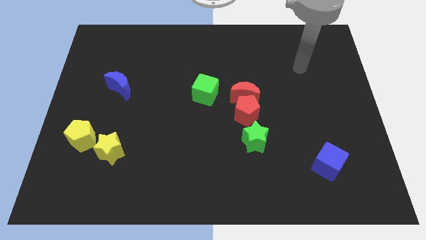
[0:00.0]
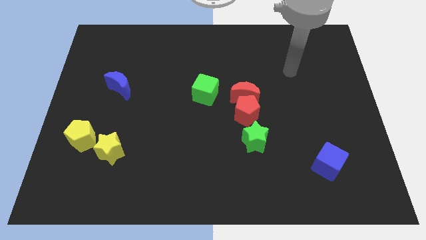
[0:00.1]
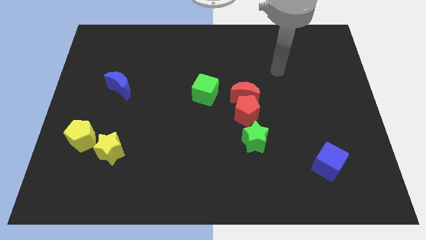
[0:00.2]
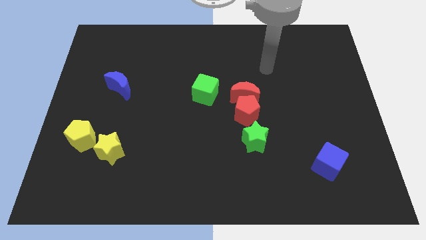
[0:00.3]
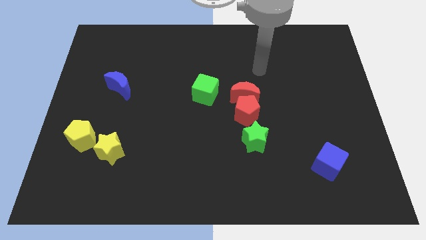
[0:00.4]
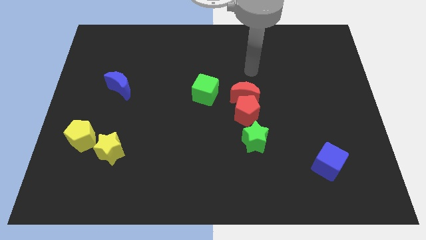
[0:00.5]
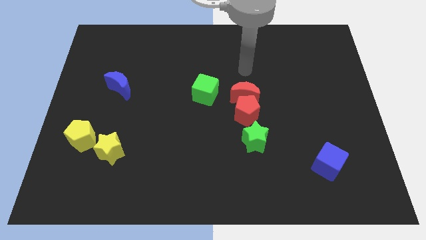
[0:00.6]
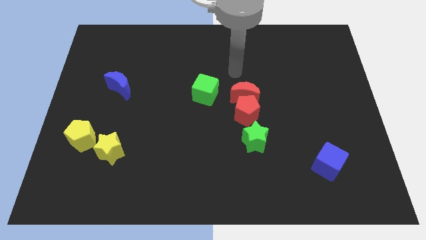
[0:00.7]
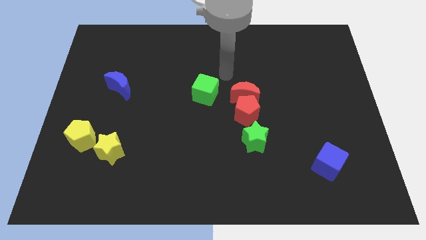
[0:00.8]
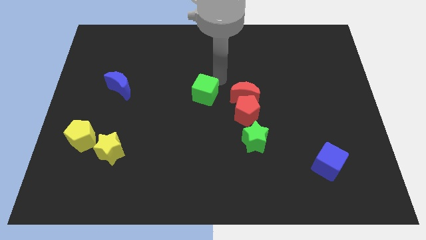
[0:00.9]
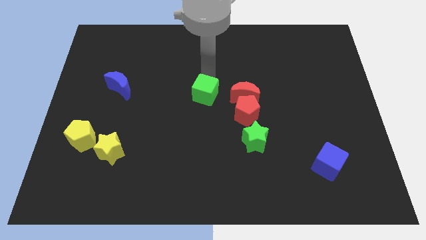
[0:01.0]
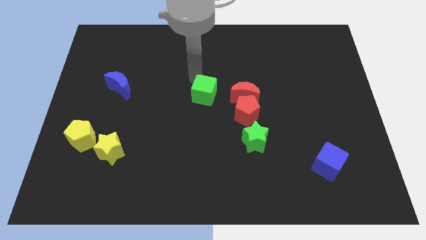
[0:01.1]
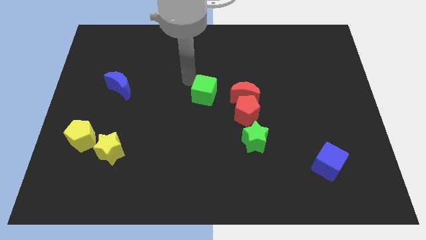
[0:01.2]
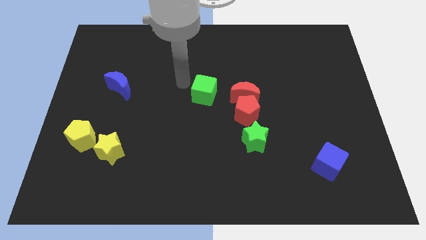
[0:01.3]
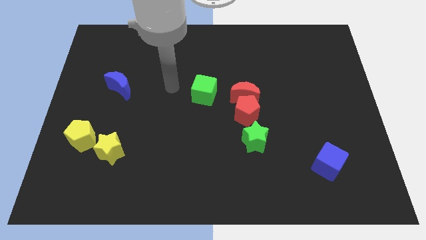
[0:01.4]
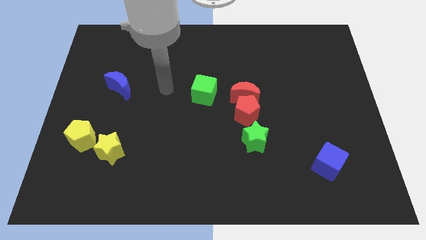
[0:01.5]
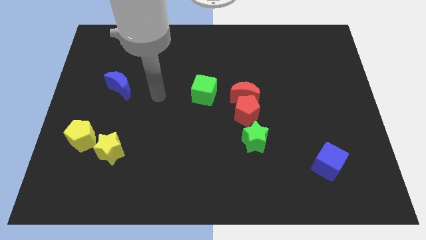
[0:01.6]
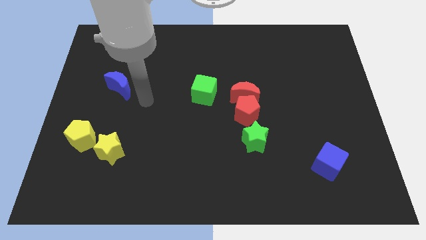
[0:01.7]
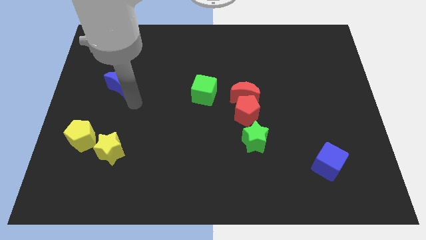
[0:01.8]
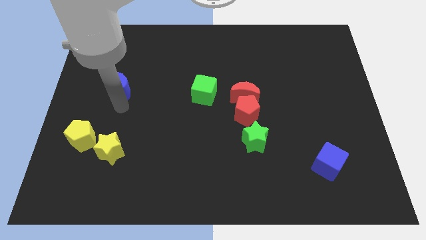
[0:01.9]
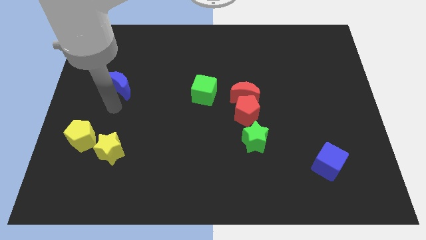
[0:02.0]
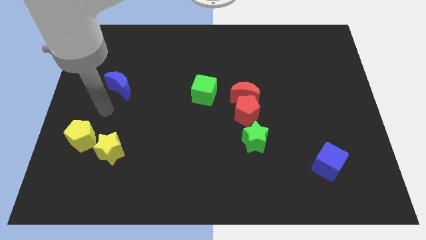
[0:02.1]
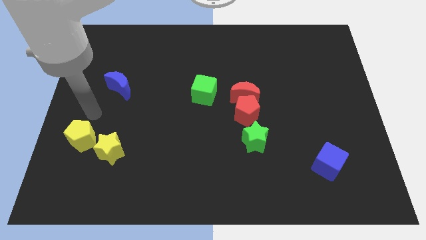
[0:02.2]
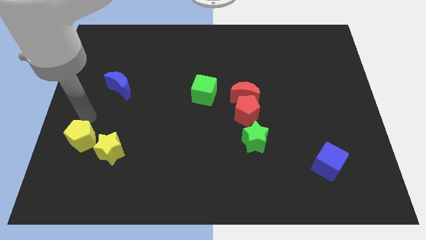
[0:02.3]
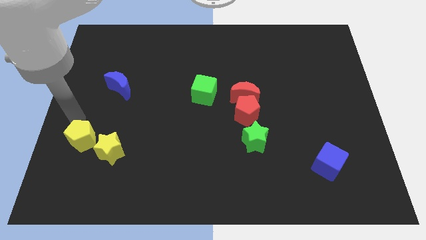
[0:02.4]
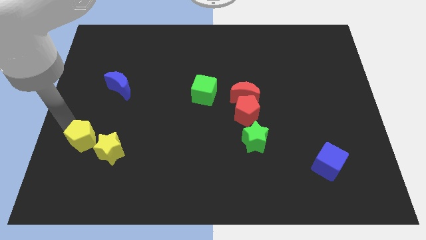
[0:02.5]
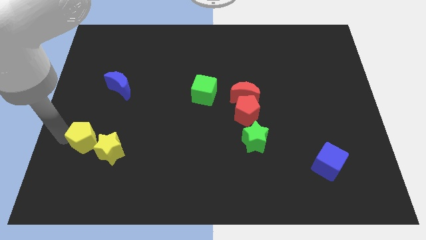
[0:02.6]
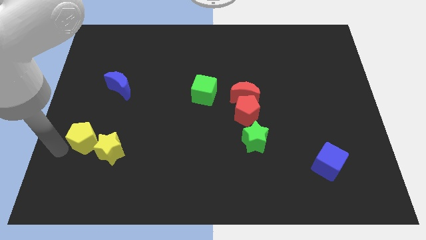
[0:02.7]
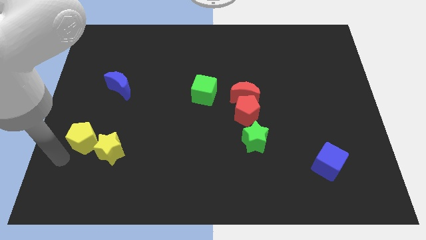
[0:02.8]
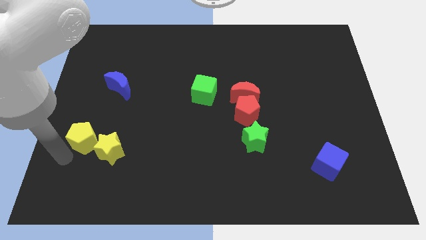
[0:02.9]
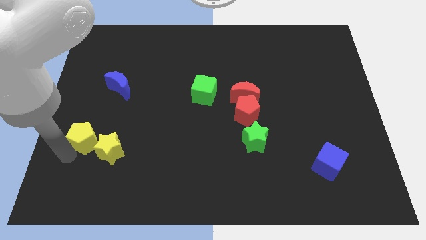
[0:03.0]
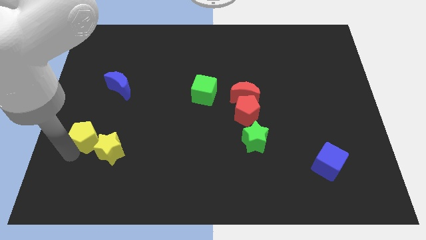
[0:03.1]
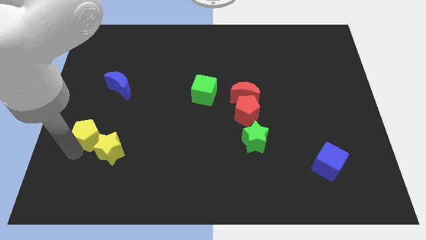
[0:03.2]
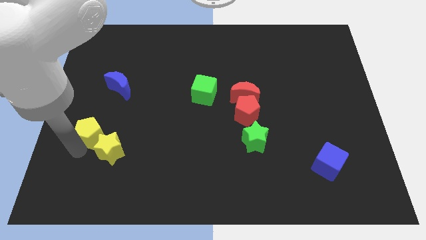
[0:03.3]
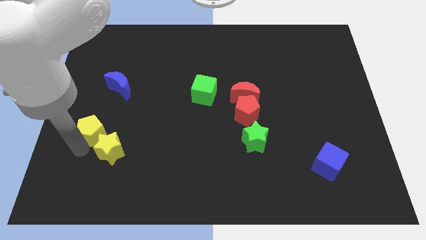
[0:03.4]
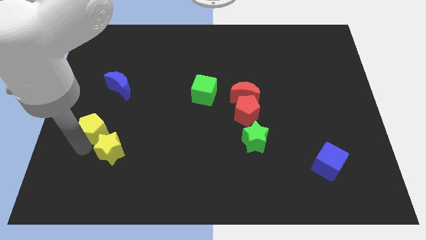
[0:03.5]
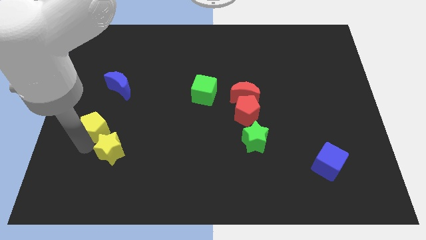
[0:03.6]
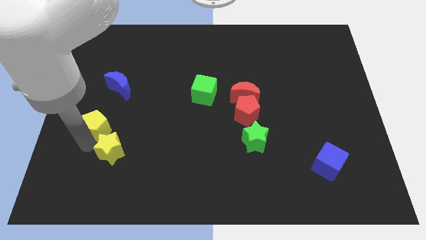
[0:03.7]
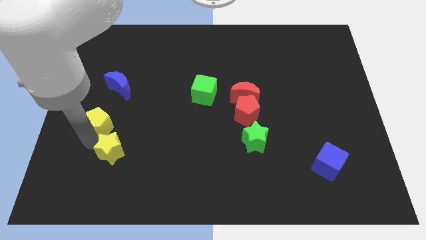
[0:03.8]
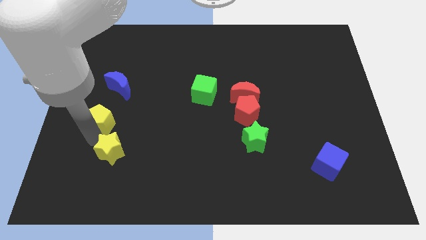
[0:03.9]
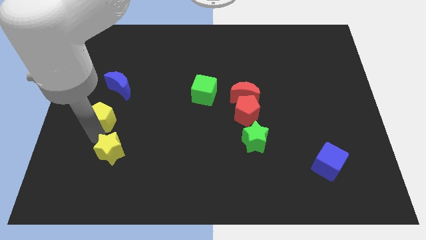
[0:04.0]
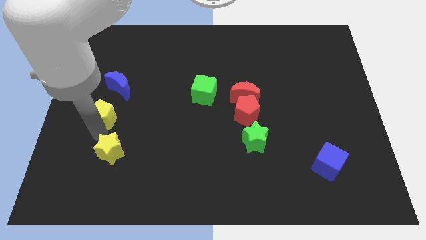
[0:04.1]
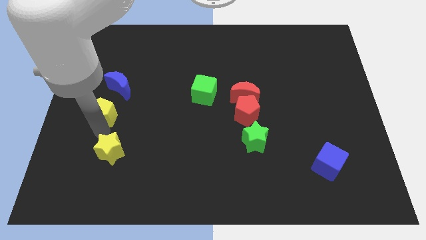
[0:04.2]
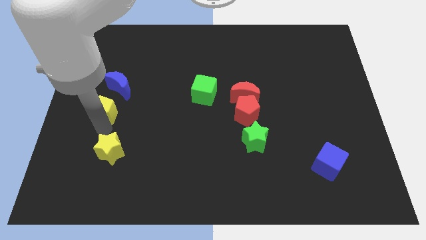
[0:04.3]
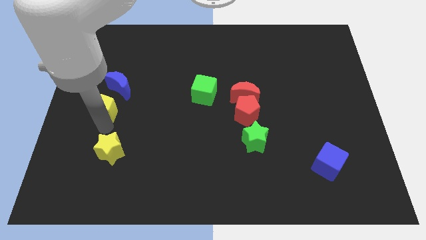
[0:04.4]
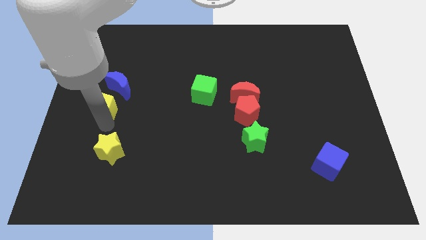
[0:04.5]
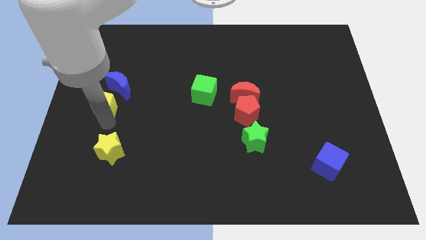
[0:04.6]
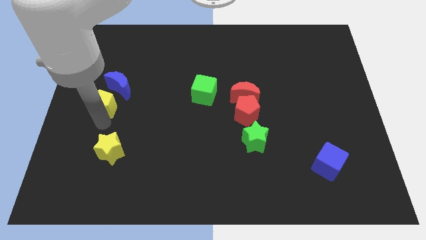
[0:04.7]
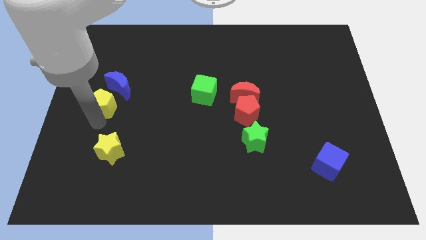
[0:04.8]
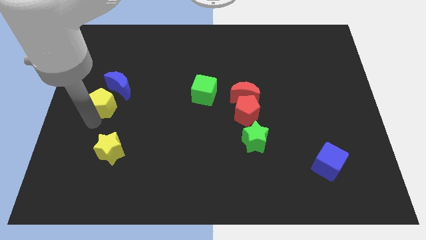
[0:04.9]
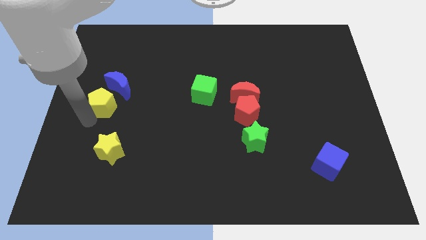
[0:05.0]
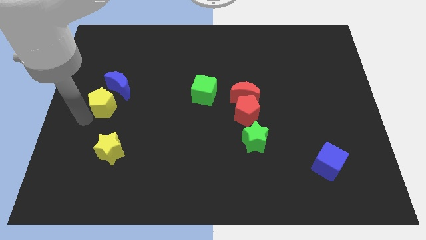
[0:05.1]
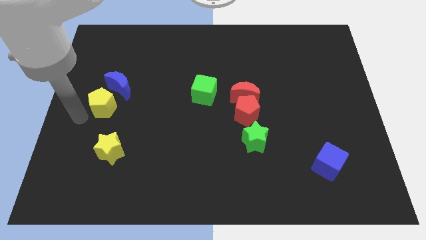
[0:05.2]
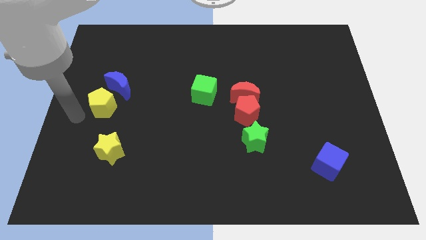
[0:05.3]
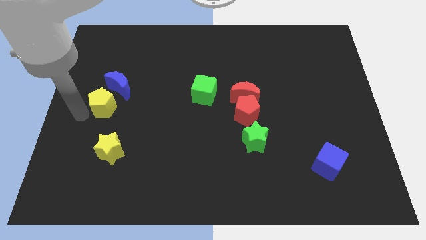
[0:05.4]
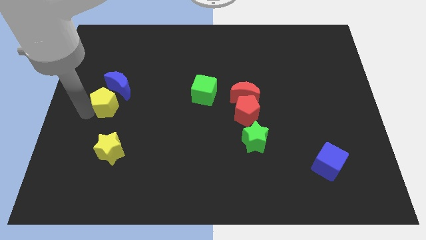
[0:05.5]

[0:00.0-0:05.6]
slide the yellow pentagon next to the blue moon

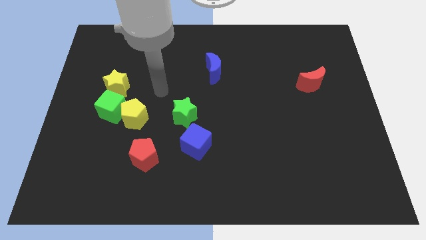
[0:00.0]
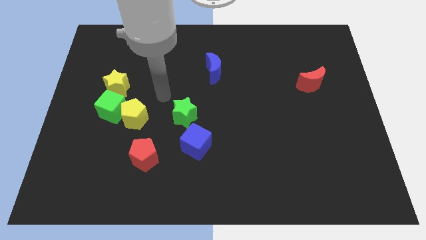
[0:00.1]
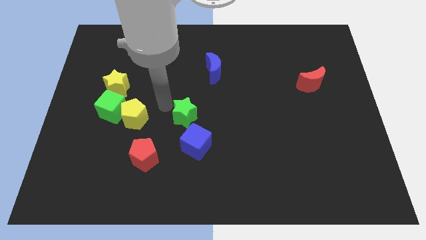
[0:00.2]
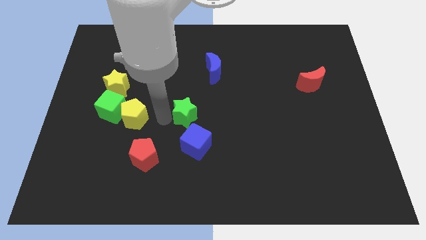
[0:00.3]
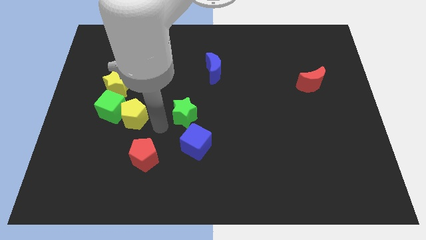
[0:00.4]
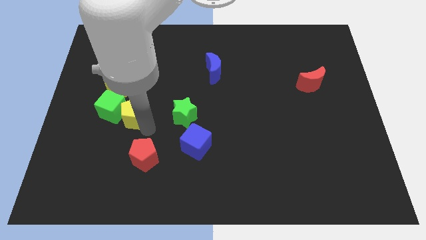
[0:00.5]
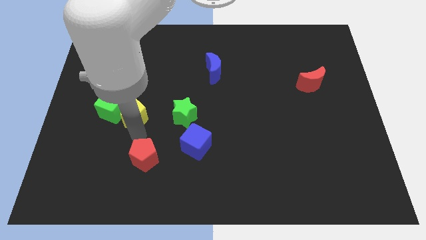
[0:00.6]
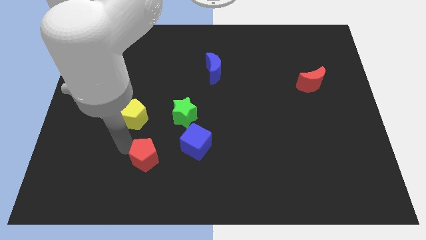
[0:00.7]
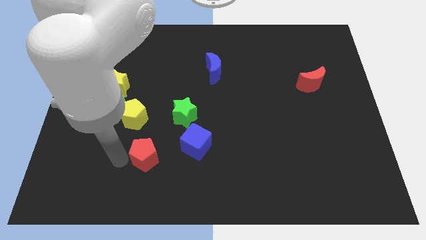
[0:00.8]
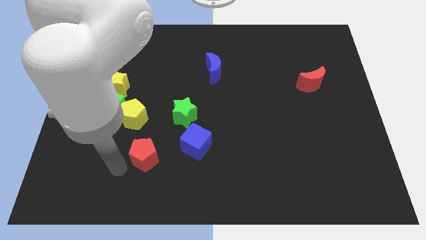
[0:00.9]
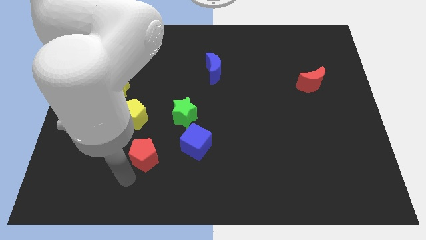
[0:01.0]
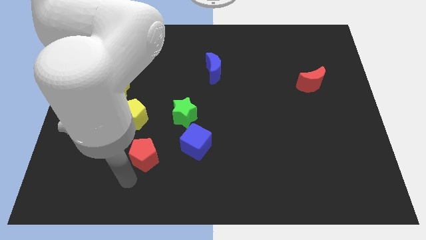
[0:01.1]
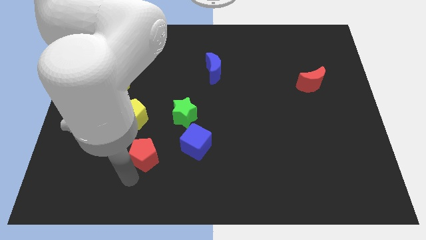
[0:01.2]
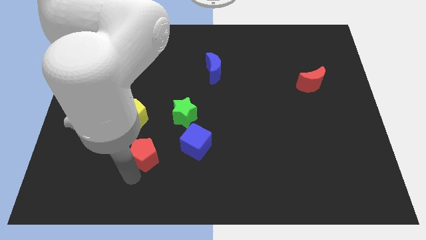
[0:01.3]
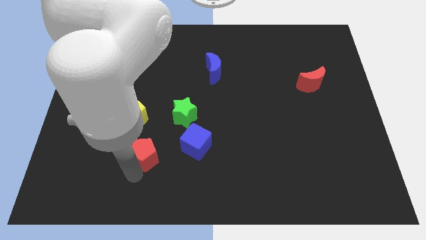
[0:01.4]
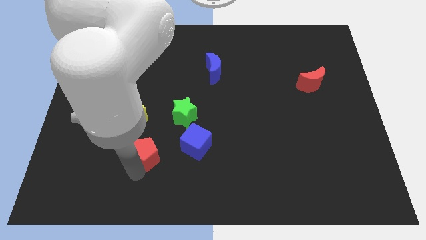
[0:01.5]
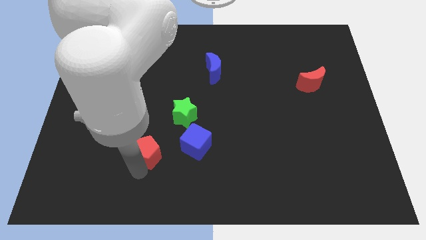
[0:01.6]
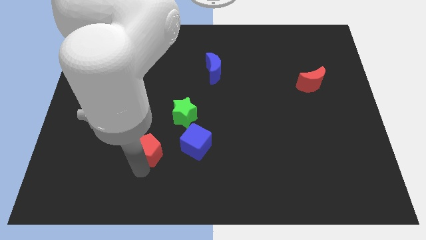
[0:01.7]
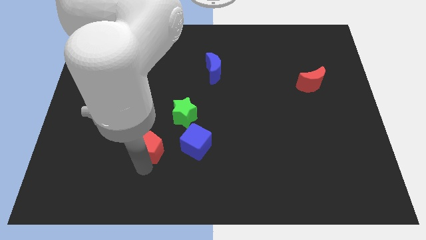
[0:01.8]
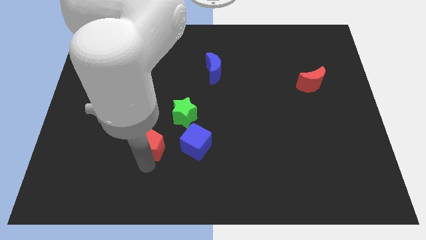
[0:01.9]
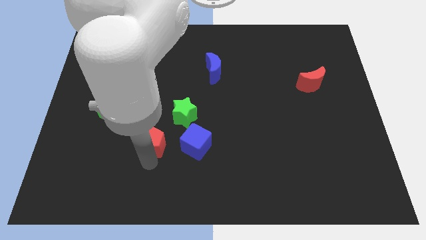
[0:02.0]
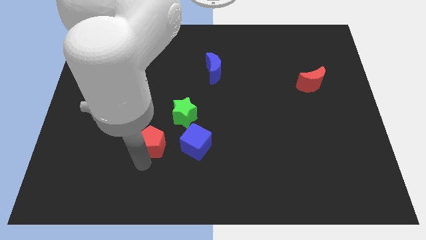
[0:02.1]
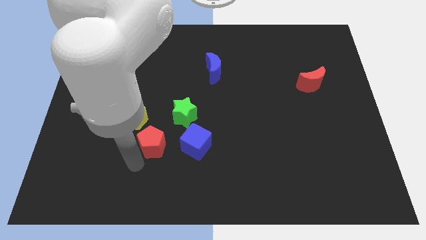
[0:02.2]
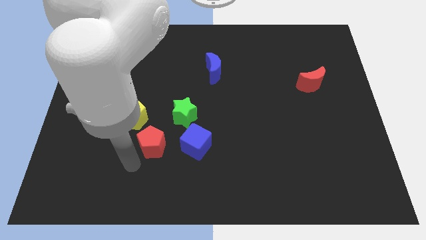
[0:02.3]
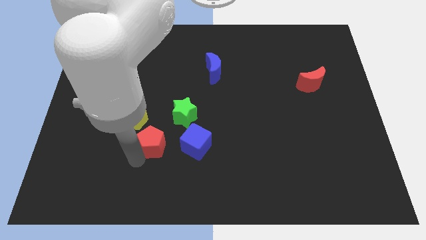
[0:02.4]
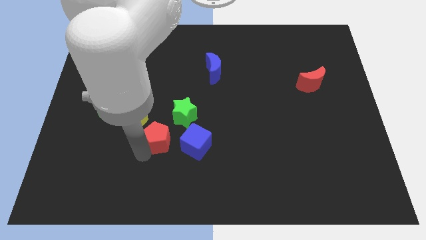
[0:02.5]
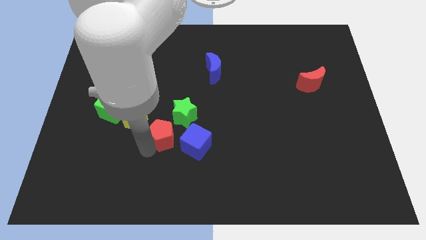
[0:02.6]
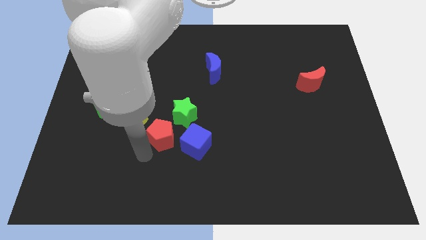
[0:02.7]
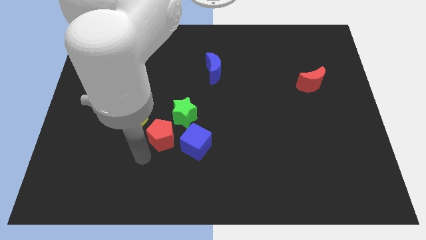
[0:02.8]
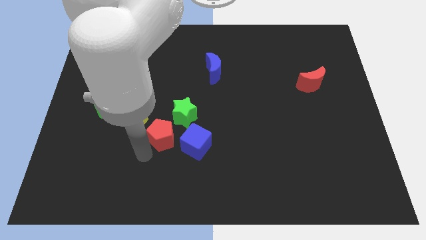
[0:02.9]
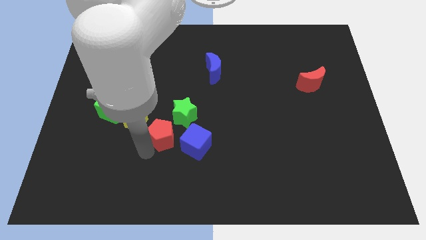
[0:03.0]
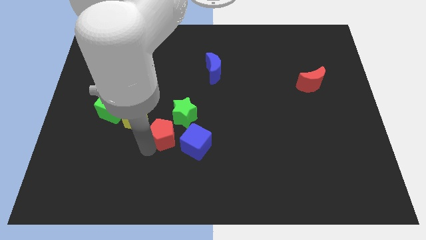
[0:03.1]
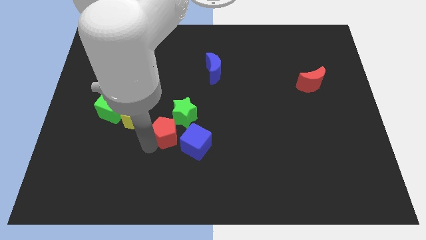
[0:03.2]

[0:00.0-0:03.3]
move the red pentagon close to the green star
